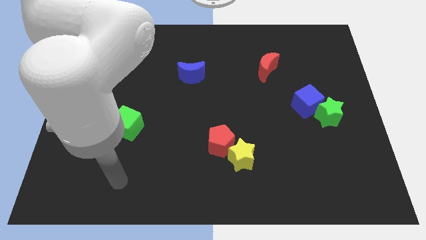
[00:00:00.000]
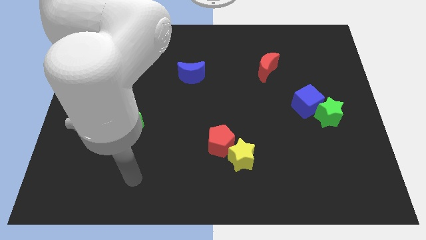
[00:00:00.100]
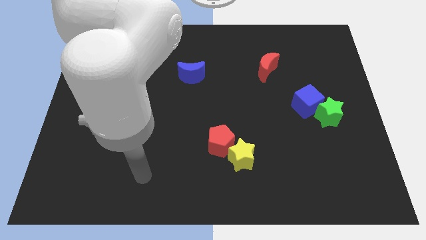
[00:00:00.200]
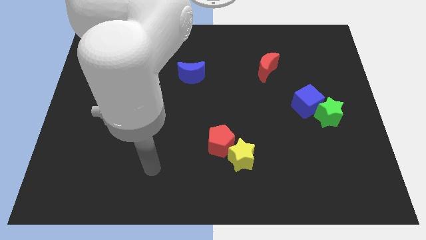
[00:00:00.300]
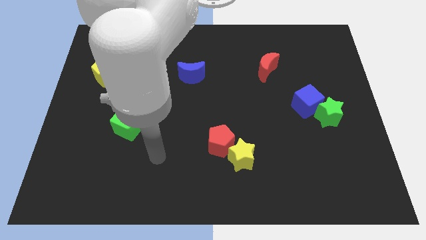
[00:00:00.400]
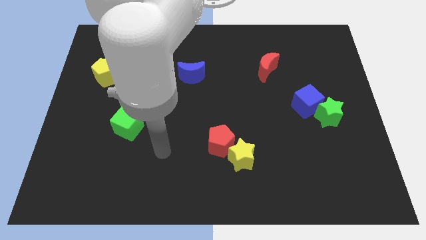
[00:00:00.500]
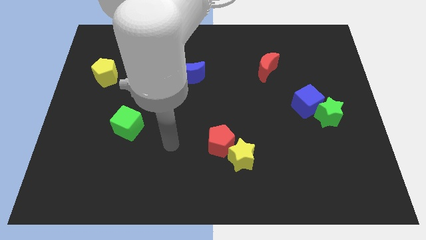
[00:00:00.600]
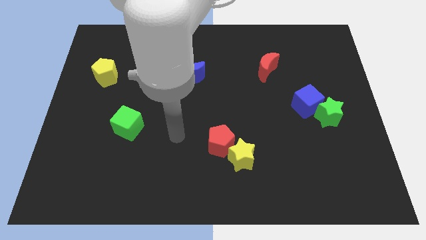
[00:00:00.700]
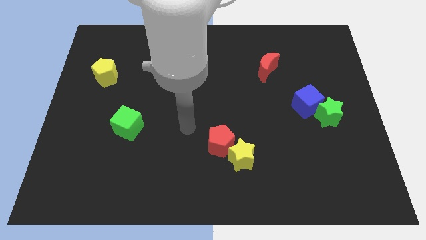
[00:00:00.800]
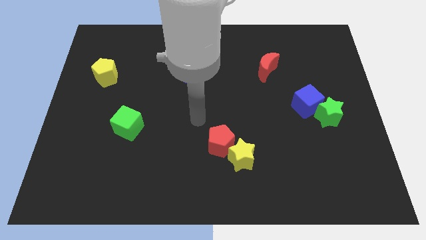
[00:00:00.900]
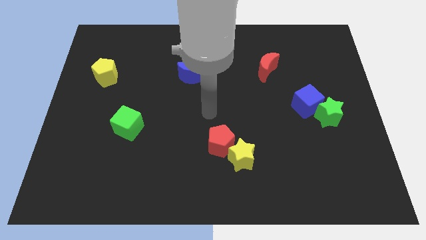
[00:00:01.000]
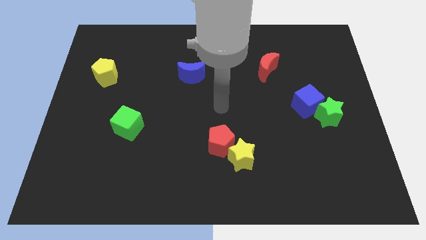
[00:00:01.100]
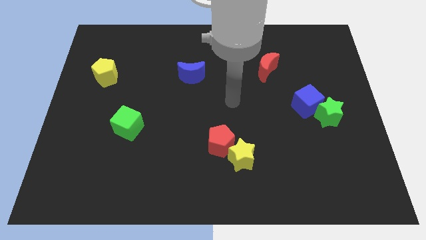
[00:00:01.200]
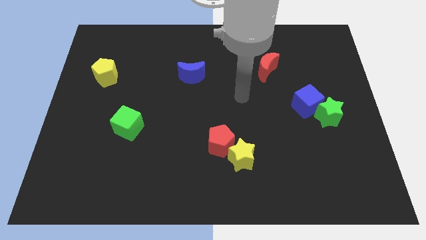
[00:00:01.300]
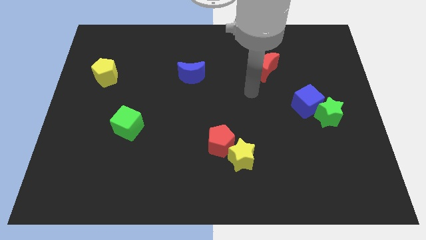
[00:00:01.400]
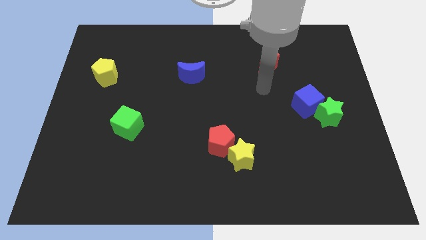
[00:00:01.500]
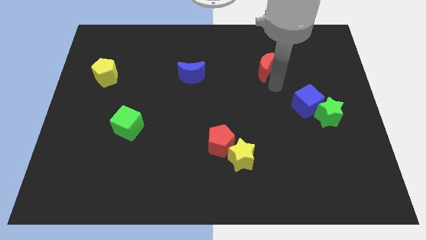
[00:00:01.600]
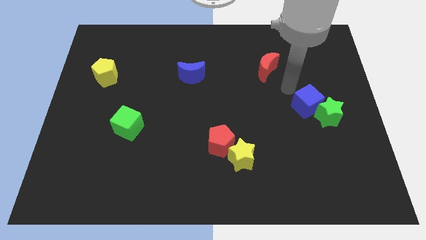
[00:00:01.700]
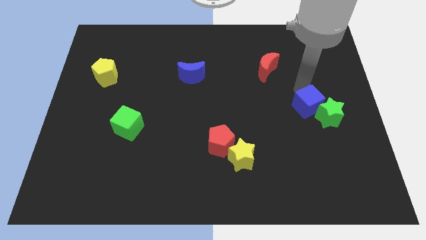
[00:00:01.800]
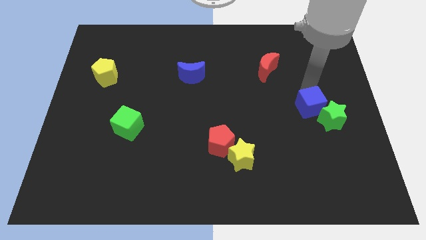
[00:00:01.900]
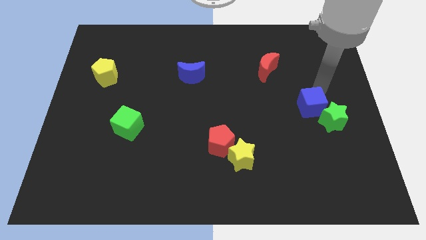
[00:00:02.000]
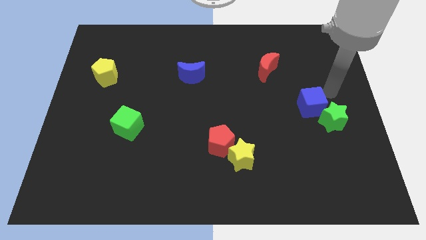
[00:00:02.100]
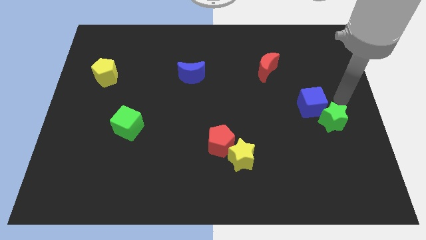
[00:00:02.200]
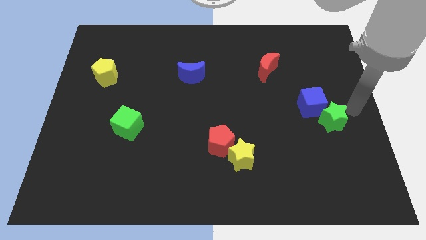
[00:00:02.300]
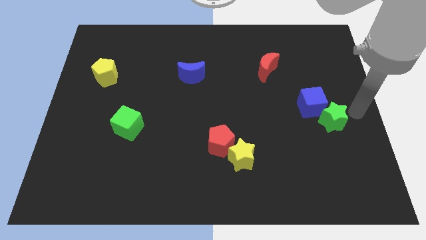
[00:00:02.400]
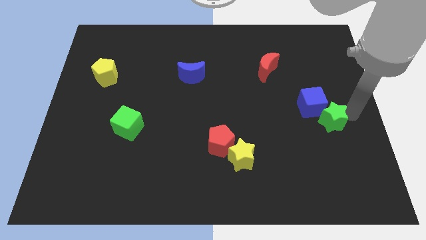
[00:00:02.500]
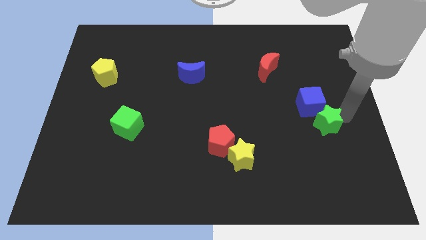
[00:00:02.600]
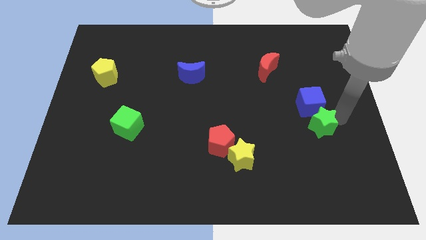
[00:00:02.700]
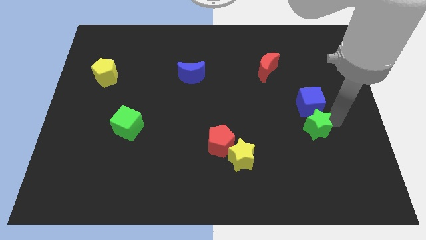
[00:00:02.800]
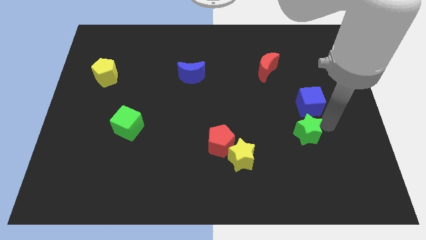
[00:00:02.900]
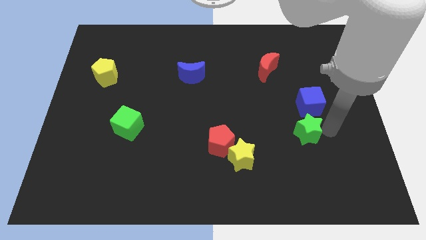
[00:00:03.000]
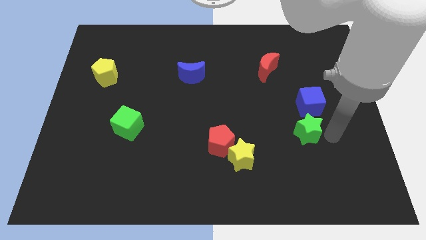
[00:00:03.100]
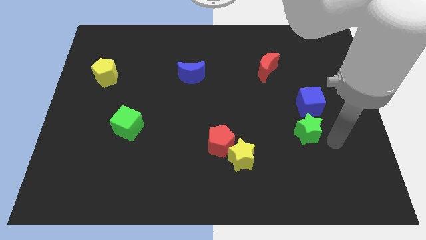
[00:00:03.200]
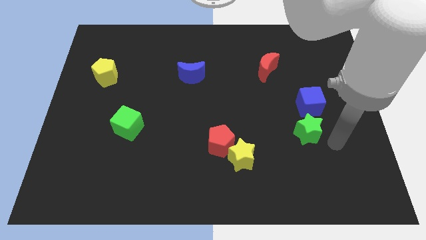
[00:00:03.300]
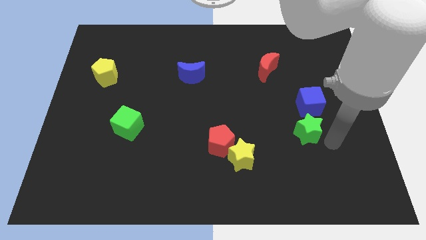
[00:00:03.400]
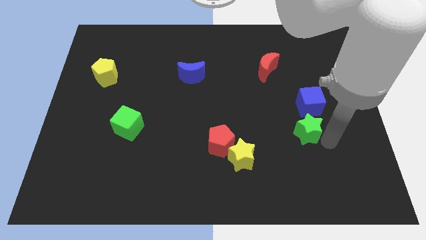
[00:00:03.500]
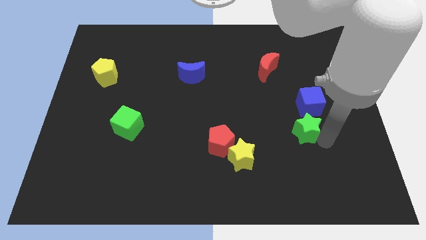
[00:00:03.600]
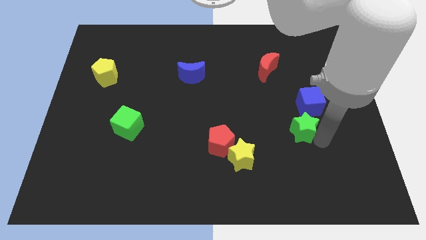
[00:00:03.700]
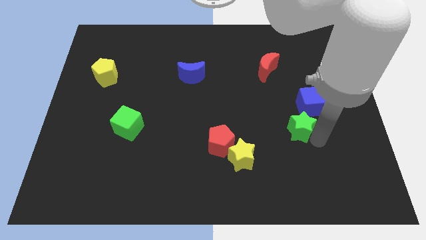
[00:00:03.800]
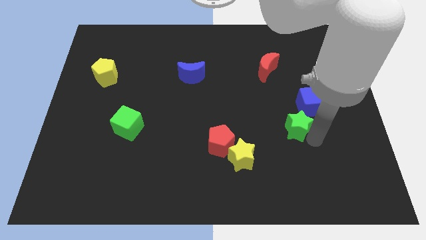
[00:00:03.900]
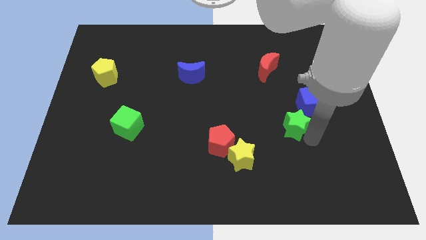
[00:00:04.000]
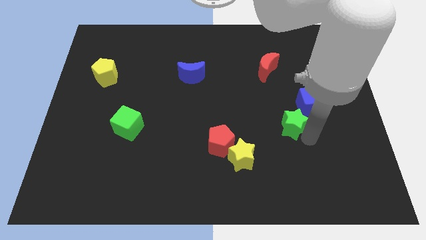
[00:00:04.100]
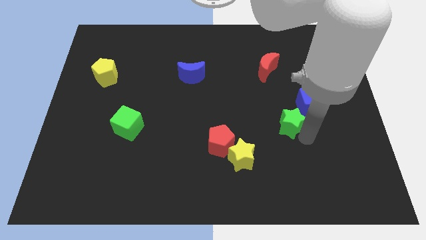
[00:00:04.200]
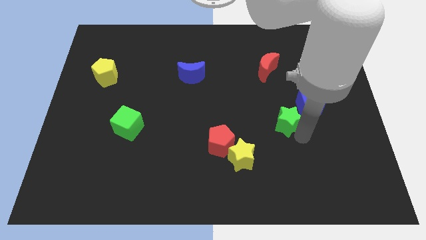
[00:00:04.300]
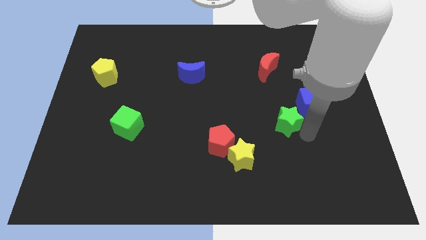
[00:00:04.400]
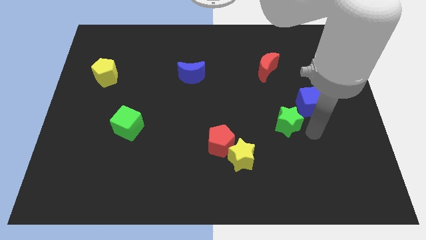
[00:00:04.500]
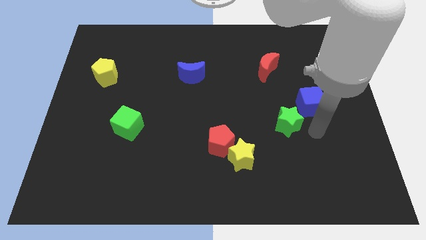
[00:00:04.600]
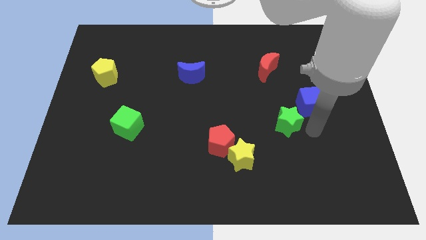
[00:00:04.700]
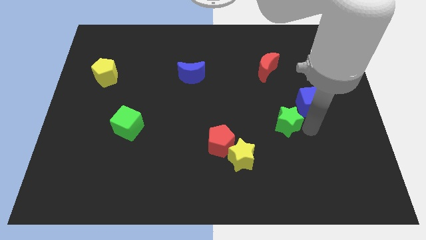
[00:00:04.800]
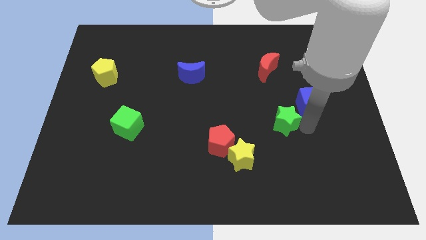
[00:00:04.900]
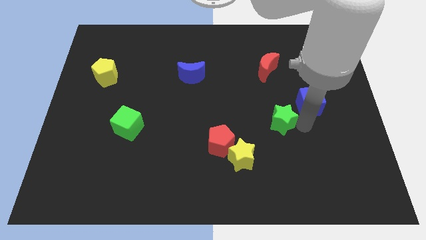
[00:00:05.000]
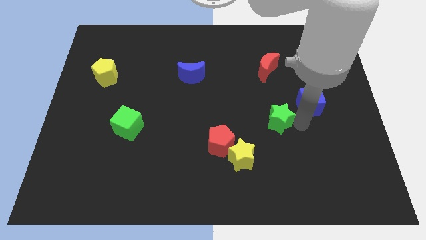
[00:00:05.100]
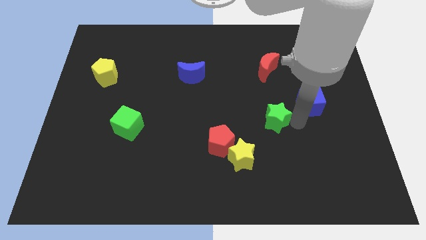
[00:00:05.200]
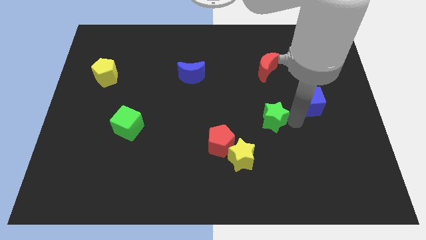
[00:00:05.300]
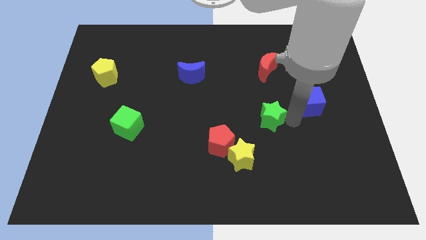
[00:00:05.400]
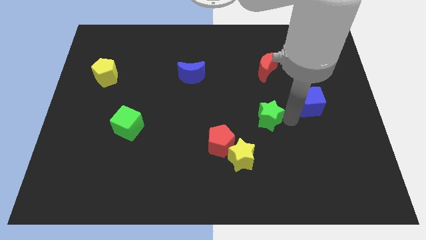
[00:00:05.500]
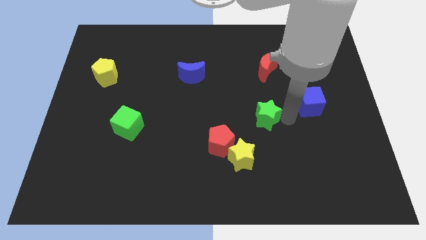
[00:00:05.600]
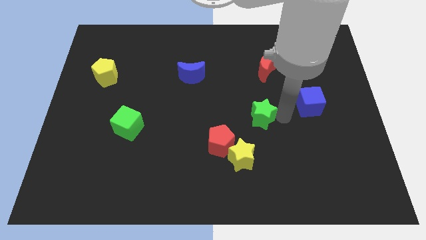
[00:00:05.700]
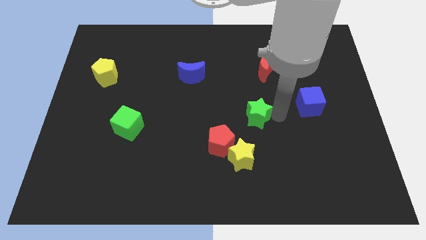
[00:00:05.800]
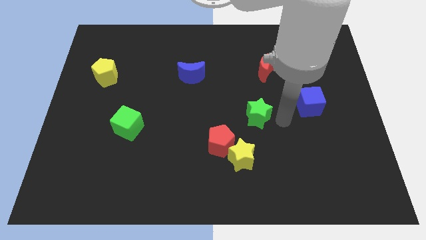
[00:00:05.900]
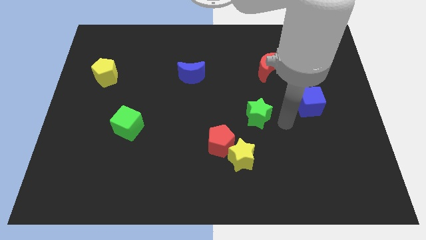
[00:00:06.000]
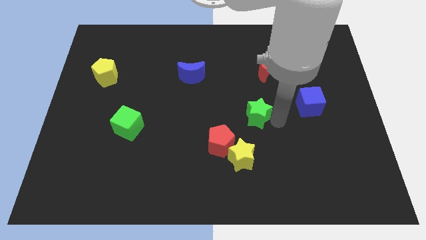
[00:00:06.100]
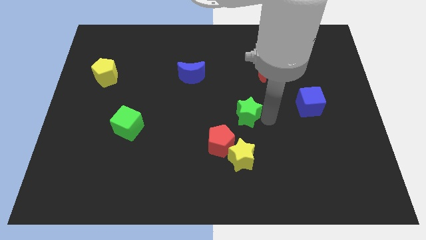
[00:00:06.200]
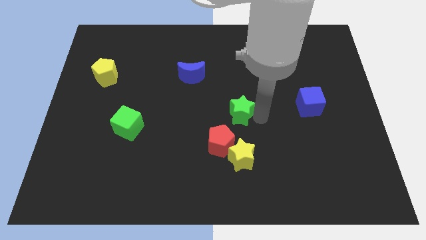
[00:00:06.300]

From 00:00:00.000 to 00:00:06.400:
put the green star above the red pentagon

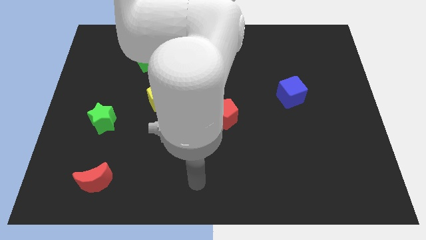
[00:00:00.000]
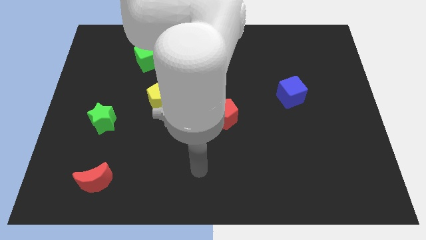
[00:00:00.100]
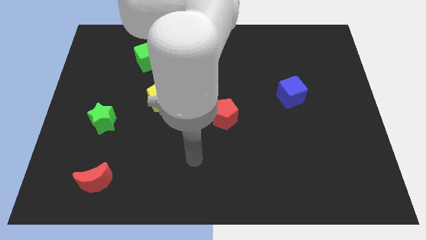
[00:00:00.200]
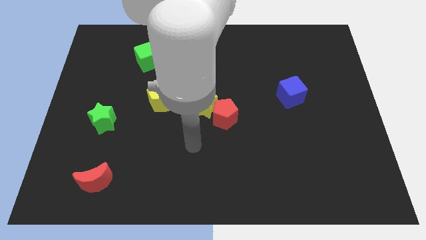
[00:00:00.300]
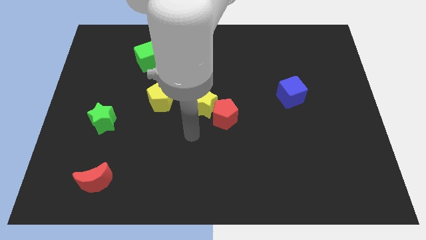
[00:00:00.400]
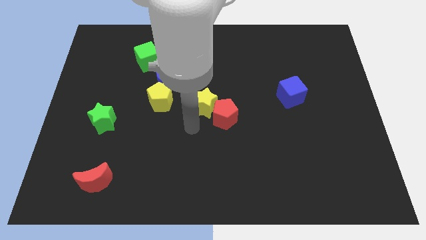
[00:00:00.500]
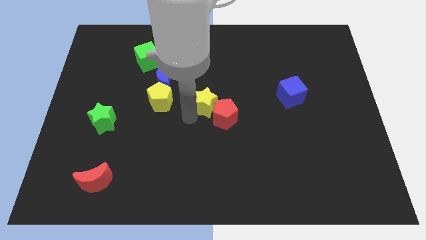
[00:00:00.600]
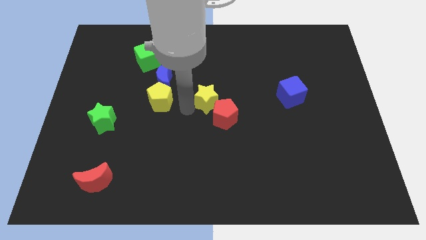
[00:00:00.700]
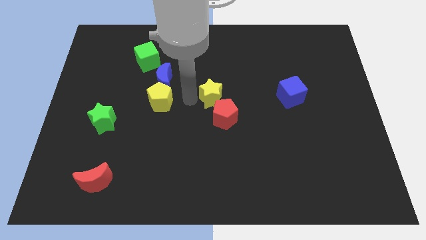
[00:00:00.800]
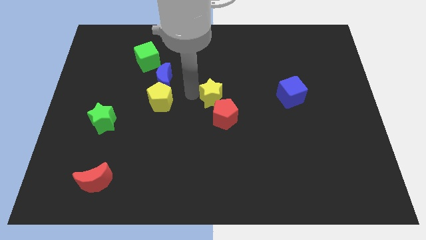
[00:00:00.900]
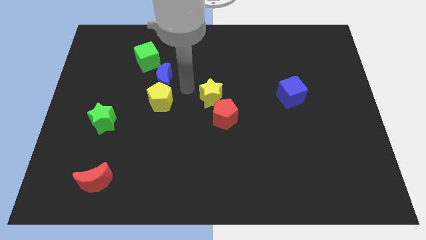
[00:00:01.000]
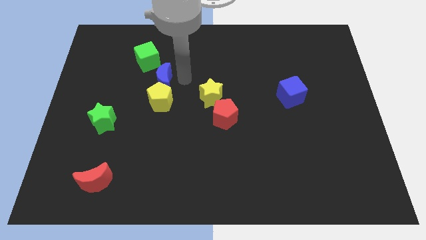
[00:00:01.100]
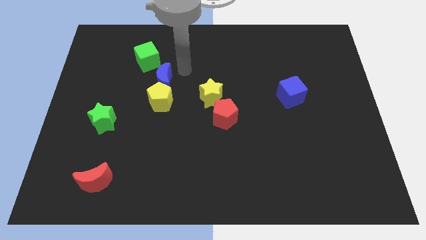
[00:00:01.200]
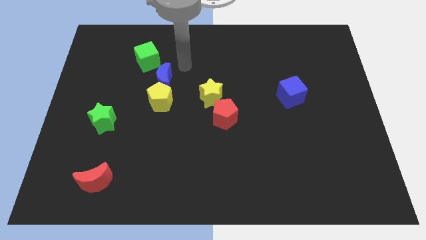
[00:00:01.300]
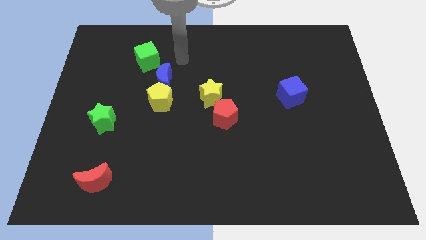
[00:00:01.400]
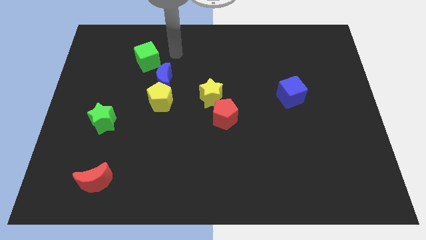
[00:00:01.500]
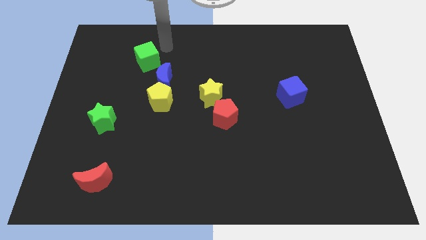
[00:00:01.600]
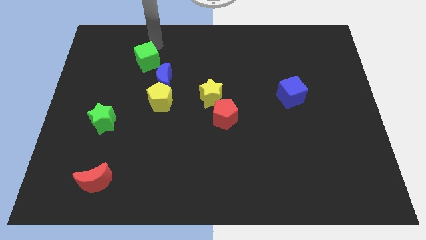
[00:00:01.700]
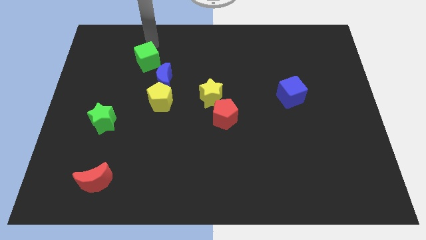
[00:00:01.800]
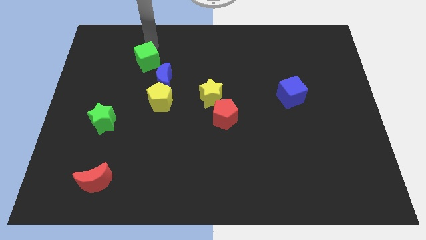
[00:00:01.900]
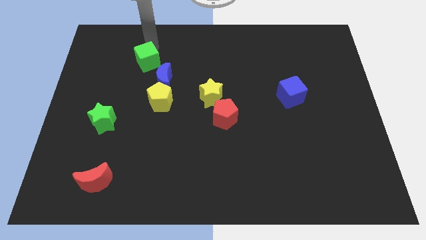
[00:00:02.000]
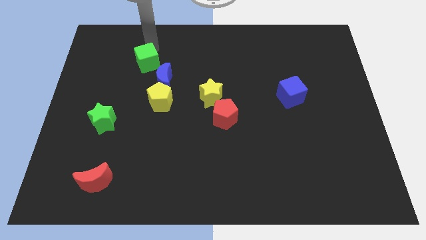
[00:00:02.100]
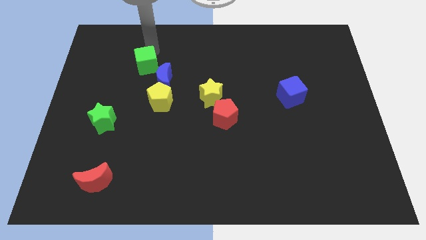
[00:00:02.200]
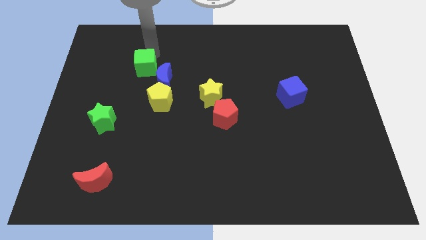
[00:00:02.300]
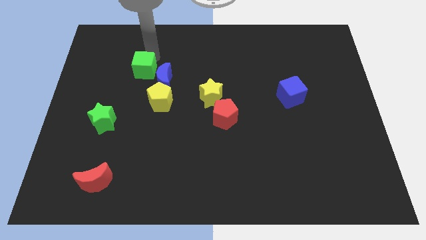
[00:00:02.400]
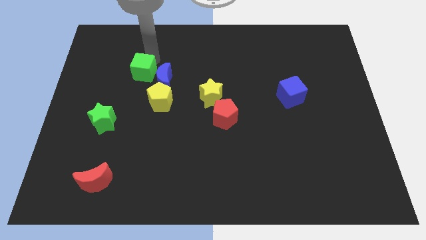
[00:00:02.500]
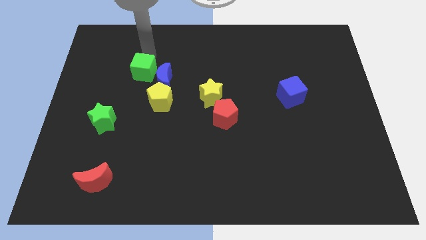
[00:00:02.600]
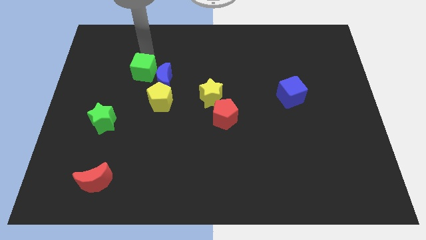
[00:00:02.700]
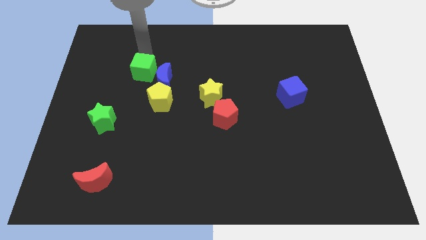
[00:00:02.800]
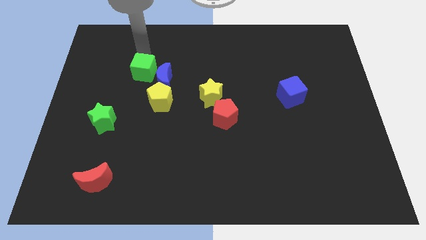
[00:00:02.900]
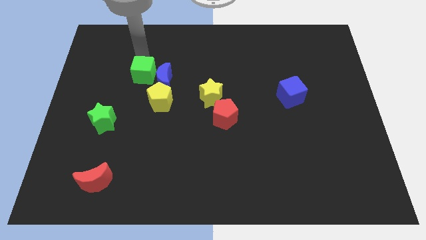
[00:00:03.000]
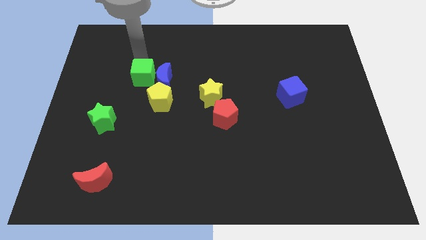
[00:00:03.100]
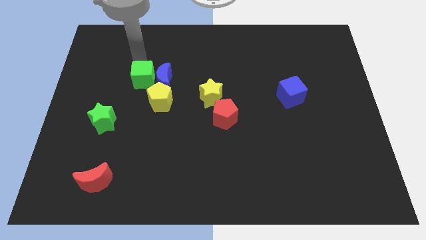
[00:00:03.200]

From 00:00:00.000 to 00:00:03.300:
slide the green cube to the bottom left of the blue moon
